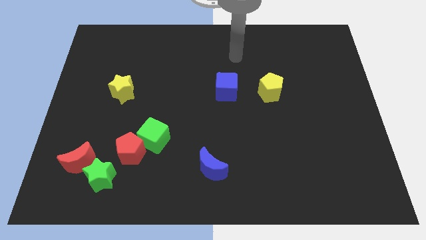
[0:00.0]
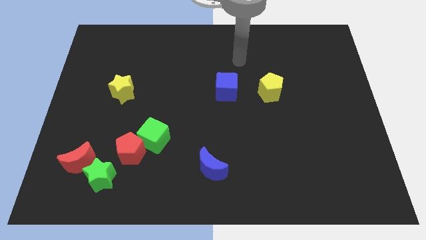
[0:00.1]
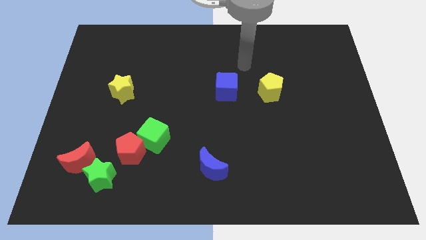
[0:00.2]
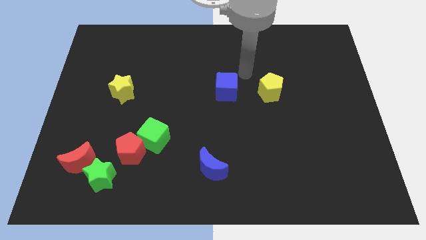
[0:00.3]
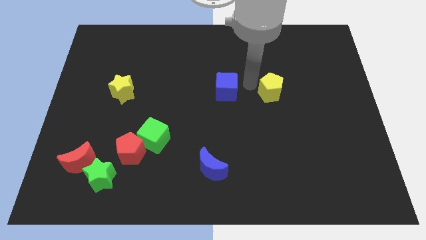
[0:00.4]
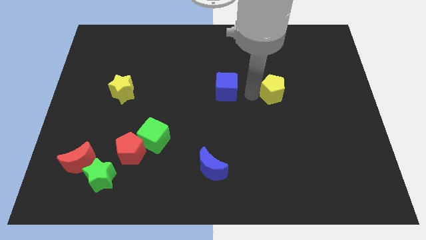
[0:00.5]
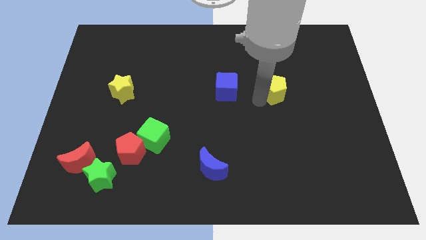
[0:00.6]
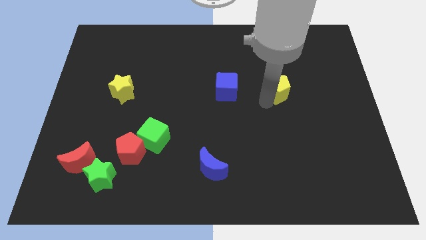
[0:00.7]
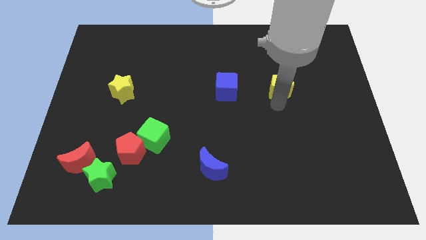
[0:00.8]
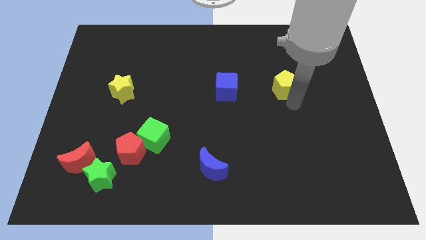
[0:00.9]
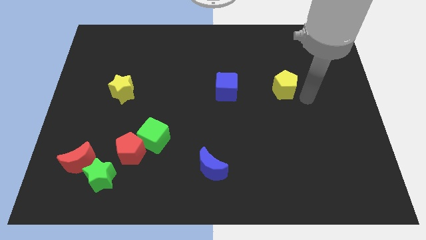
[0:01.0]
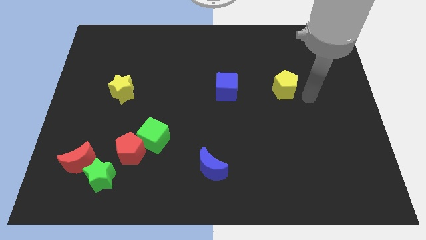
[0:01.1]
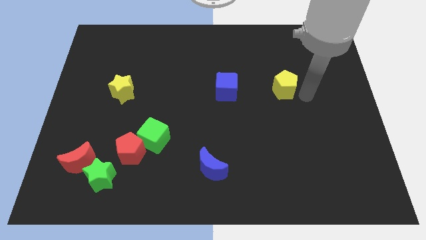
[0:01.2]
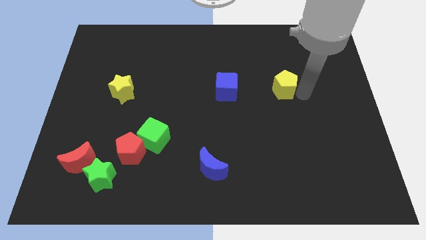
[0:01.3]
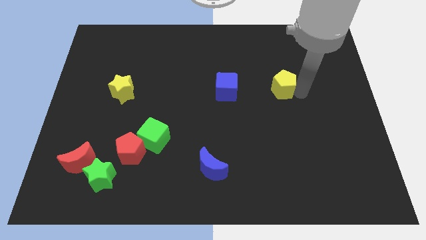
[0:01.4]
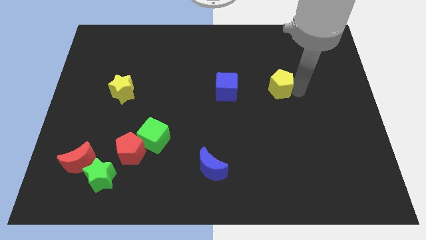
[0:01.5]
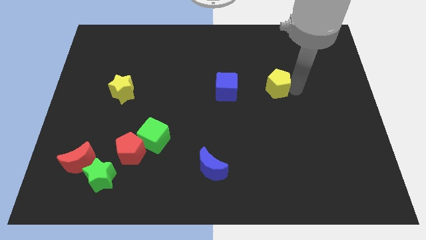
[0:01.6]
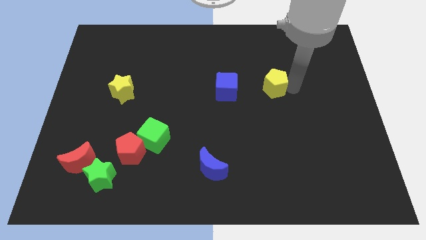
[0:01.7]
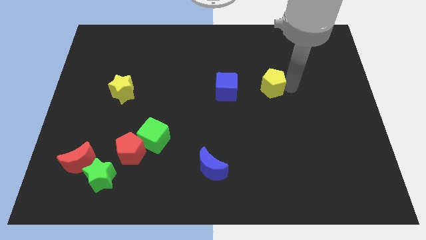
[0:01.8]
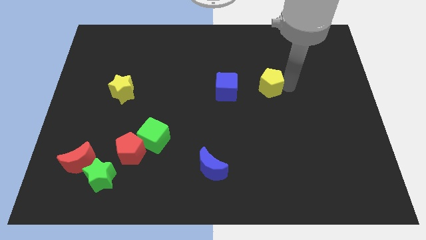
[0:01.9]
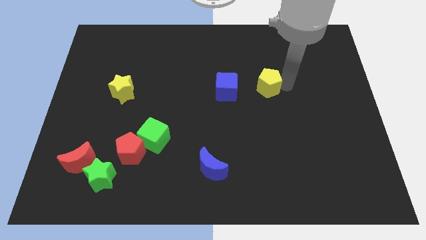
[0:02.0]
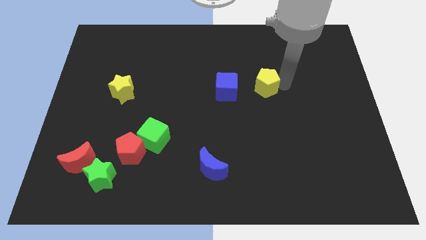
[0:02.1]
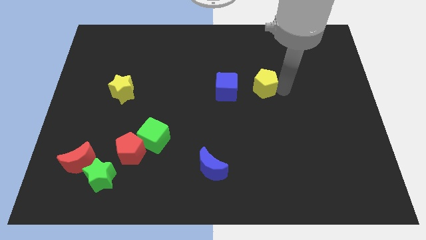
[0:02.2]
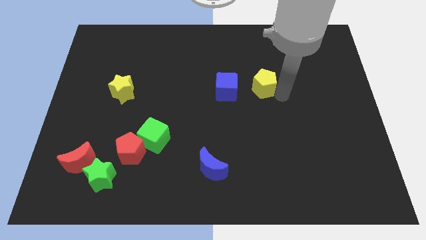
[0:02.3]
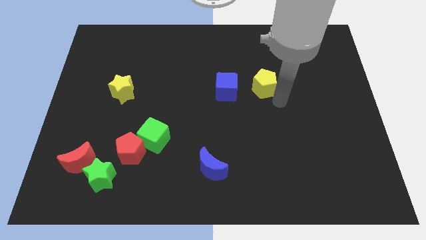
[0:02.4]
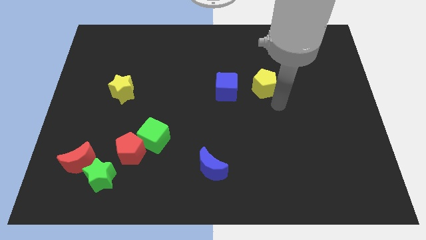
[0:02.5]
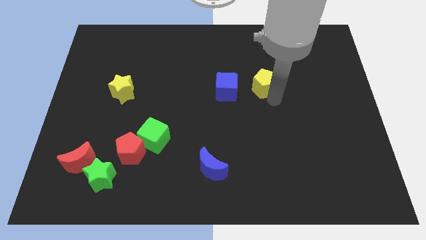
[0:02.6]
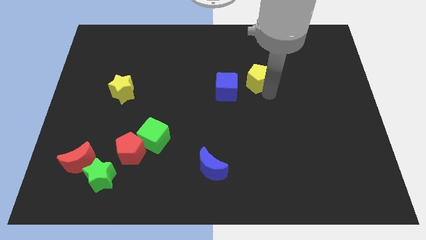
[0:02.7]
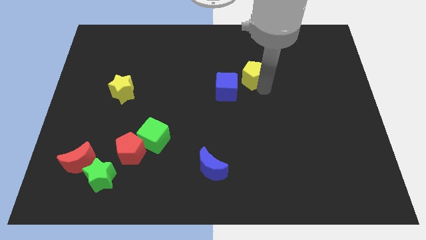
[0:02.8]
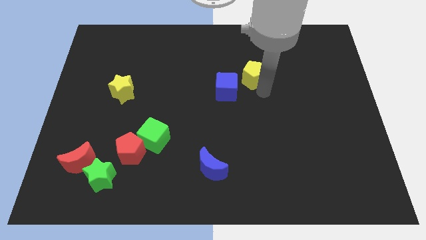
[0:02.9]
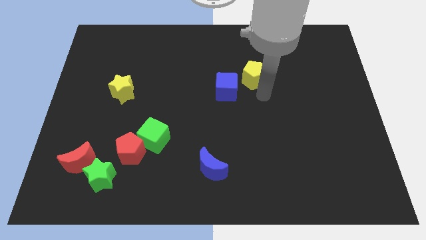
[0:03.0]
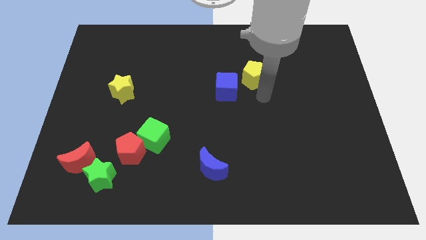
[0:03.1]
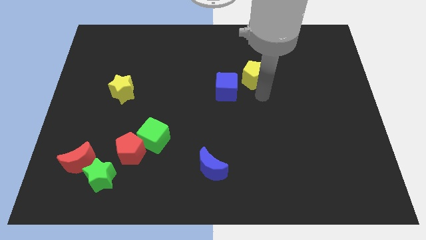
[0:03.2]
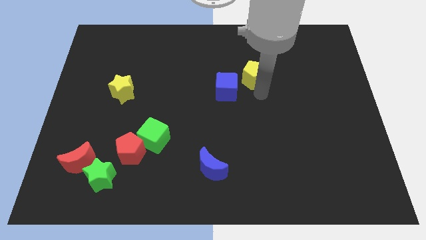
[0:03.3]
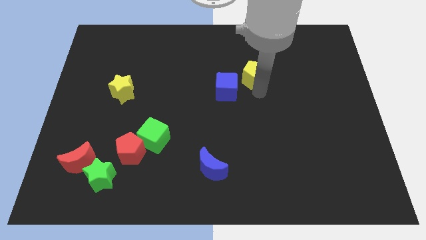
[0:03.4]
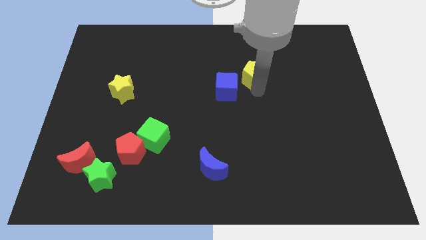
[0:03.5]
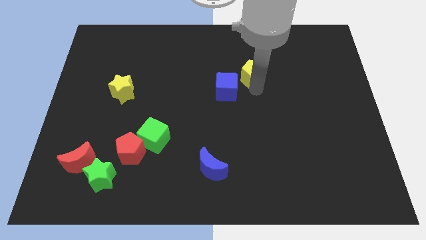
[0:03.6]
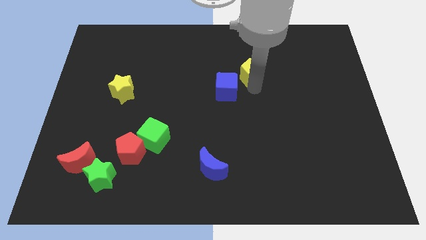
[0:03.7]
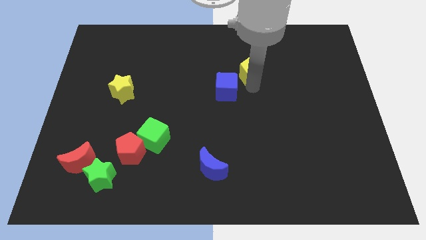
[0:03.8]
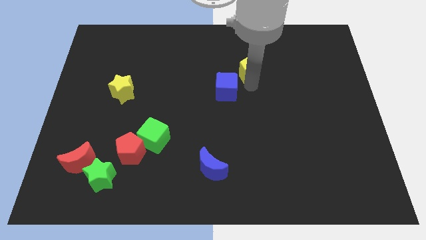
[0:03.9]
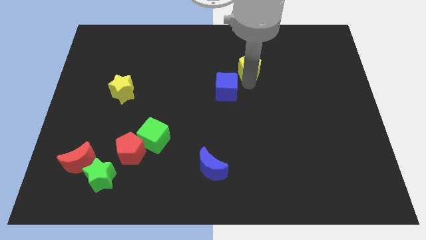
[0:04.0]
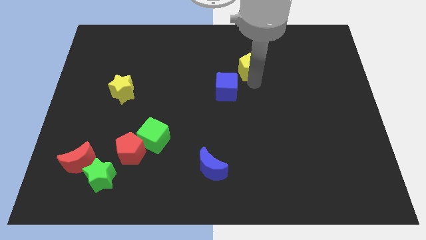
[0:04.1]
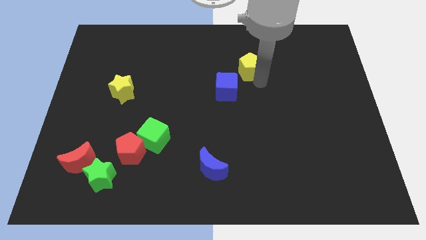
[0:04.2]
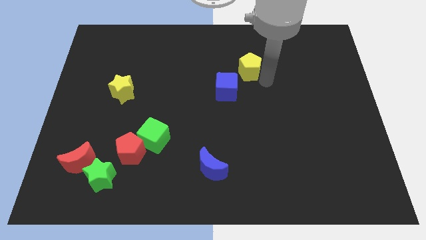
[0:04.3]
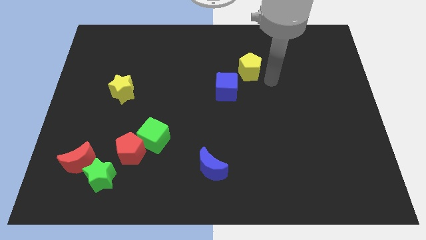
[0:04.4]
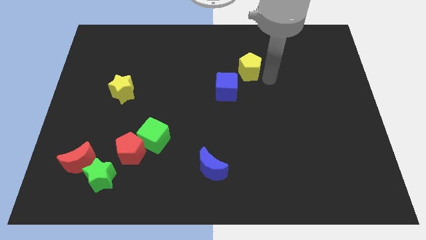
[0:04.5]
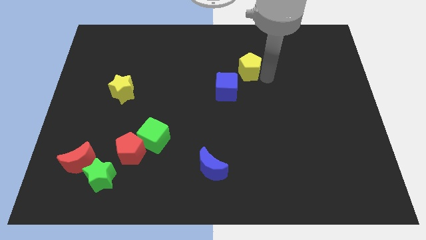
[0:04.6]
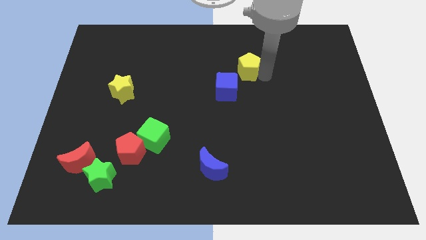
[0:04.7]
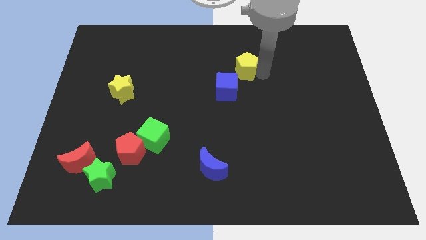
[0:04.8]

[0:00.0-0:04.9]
put the yellow pentagon to the top side of the blue cube

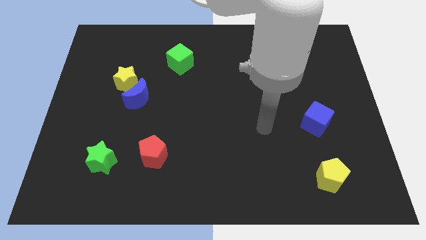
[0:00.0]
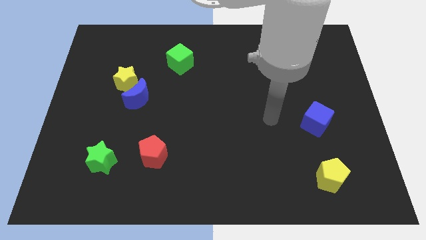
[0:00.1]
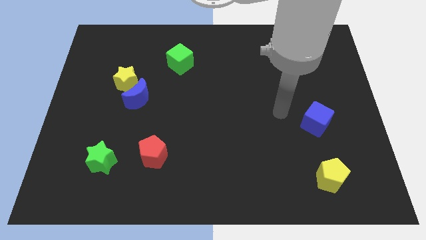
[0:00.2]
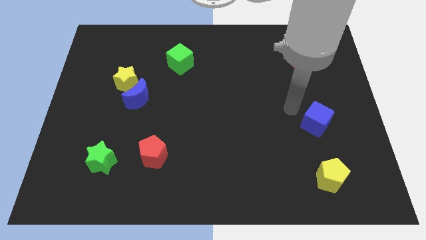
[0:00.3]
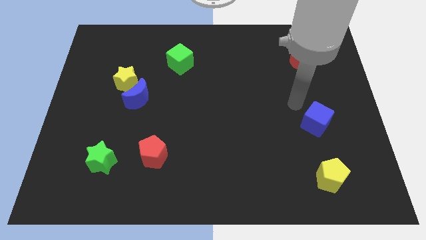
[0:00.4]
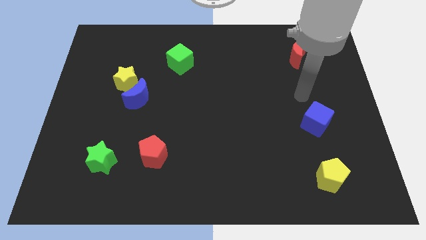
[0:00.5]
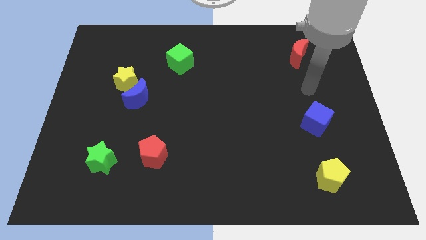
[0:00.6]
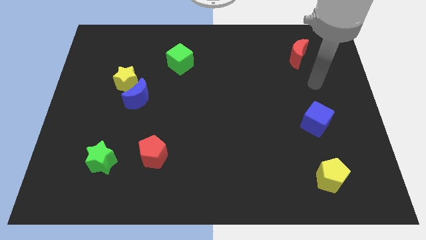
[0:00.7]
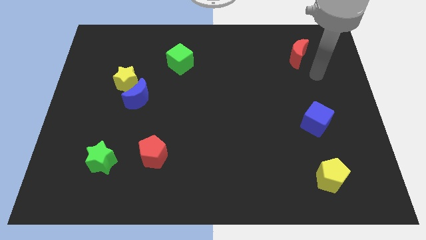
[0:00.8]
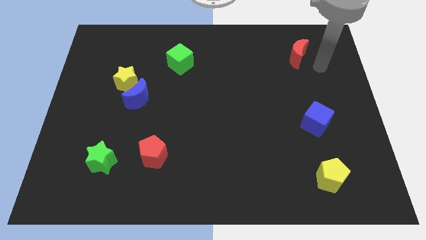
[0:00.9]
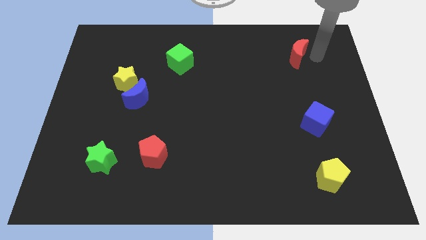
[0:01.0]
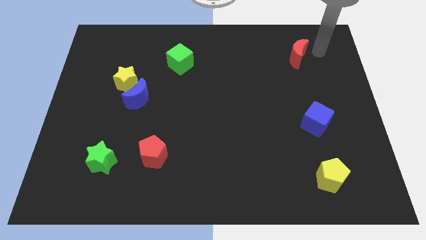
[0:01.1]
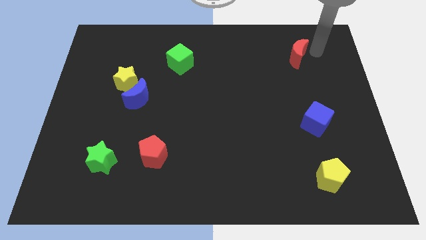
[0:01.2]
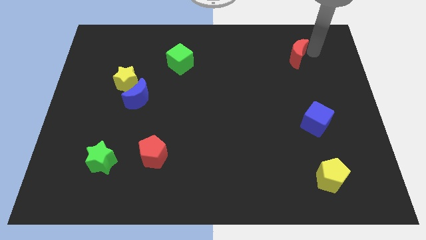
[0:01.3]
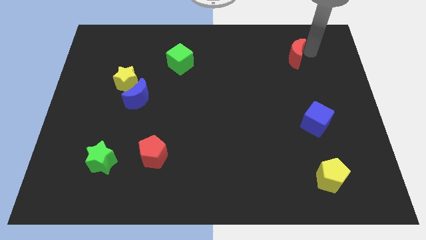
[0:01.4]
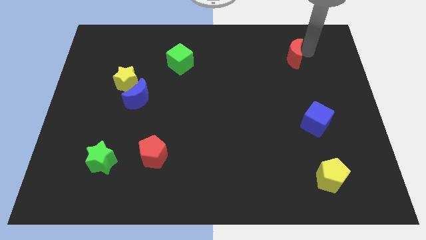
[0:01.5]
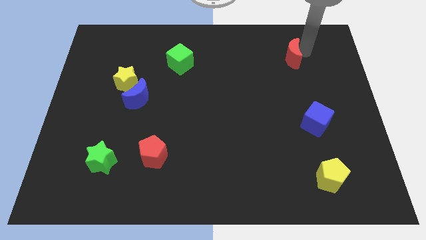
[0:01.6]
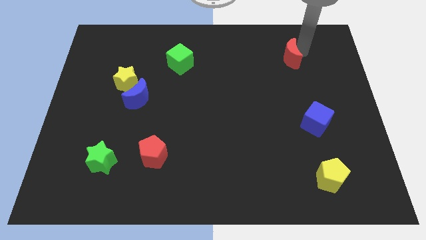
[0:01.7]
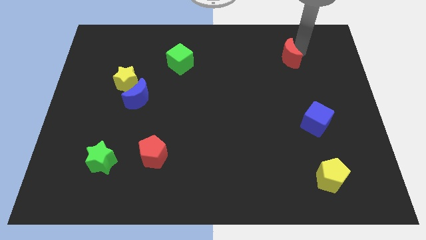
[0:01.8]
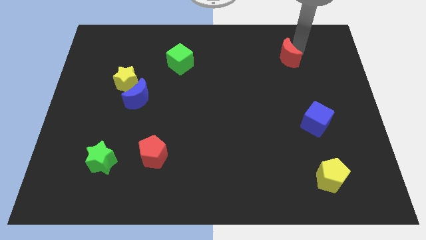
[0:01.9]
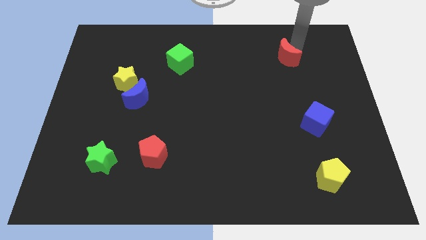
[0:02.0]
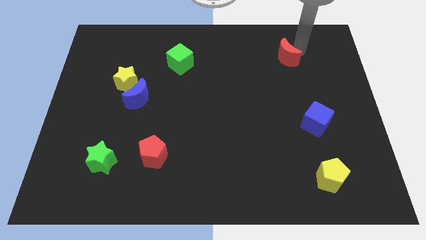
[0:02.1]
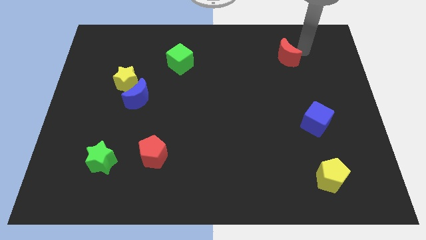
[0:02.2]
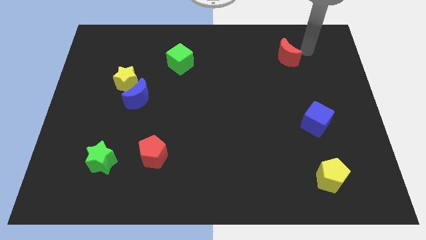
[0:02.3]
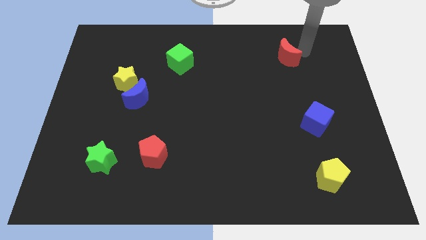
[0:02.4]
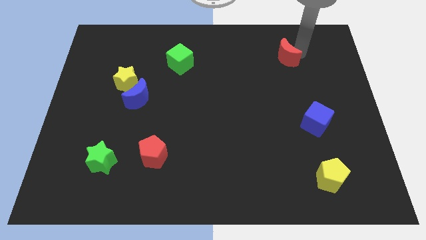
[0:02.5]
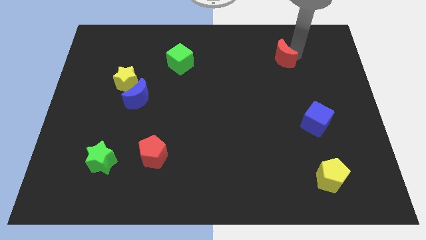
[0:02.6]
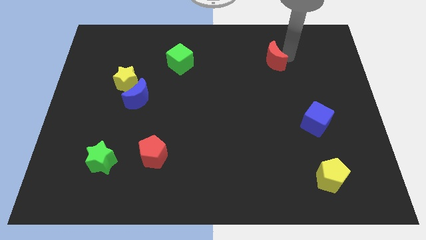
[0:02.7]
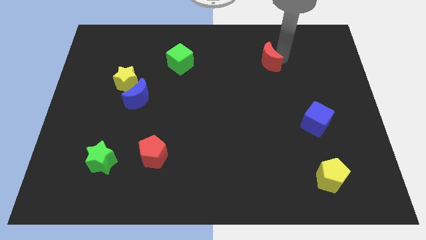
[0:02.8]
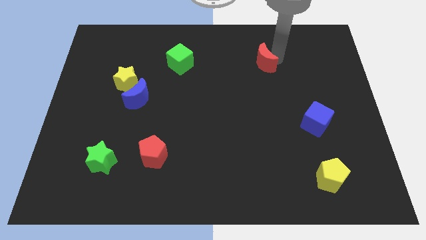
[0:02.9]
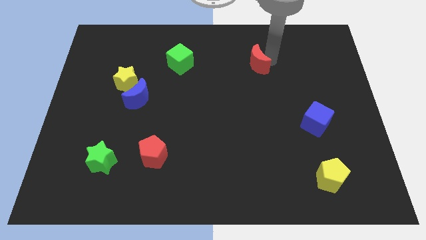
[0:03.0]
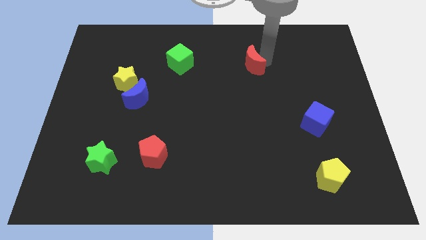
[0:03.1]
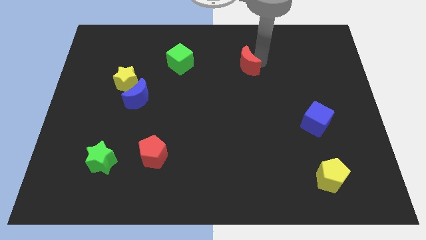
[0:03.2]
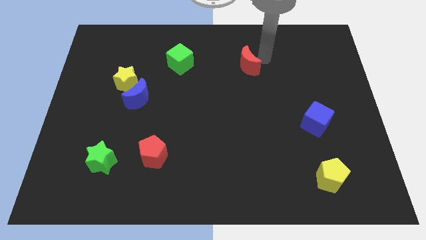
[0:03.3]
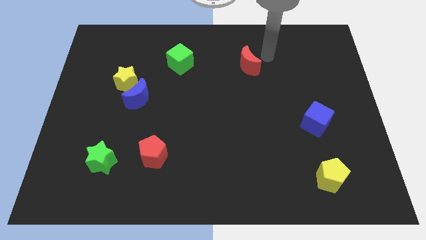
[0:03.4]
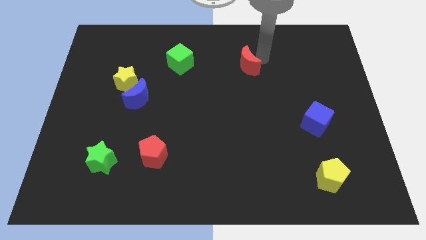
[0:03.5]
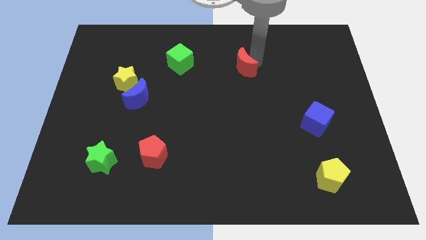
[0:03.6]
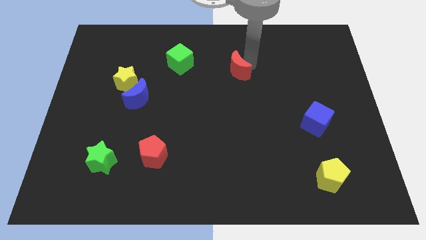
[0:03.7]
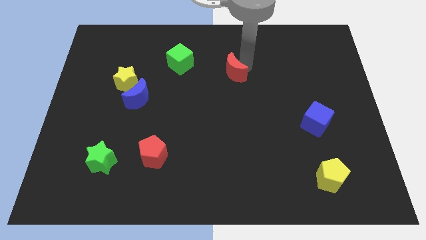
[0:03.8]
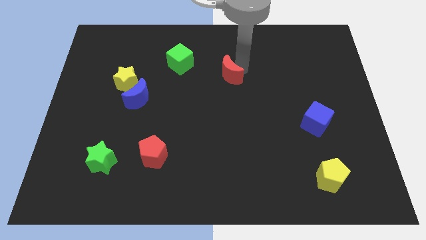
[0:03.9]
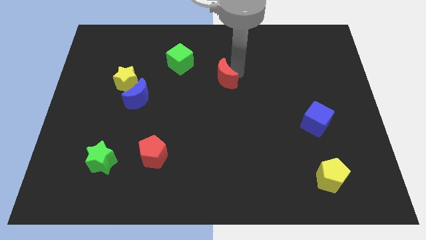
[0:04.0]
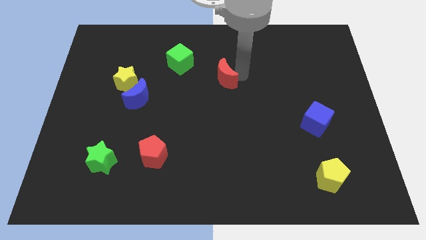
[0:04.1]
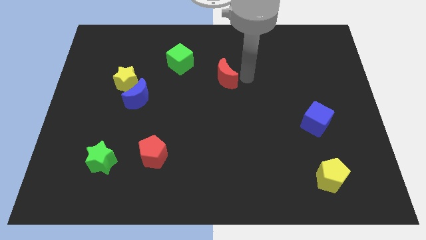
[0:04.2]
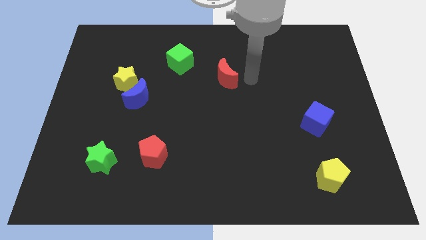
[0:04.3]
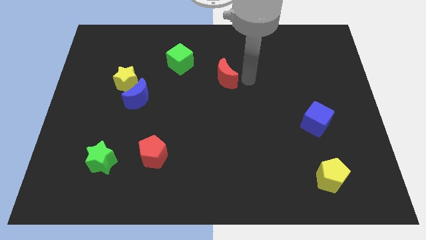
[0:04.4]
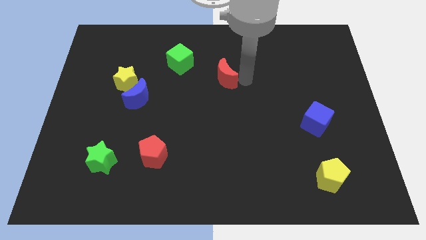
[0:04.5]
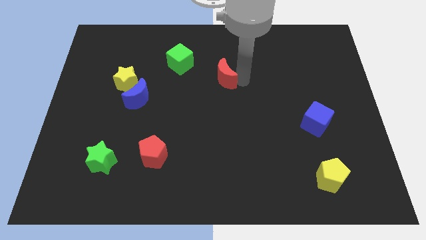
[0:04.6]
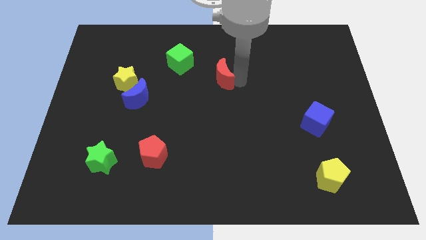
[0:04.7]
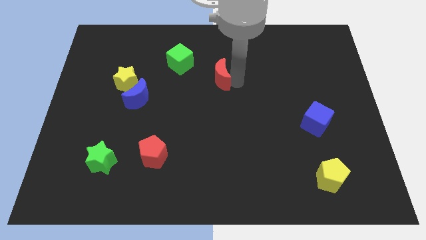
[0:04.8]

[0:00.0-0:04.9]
push the red moon to the bottom right side of the green cube
